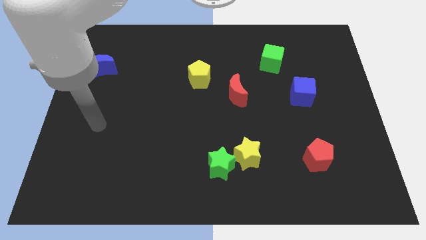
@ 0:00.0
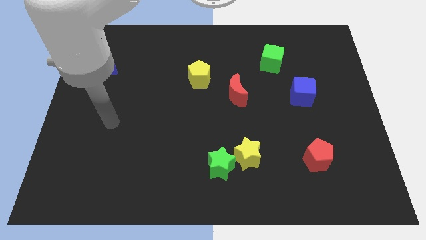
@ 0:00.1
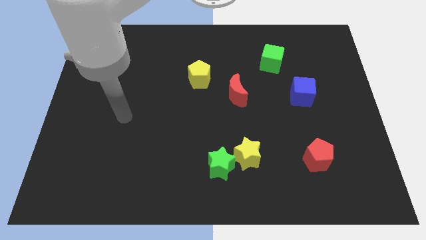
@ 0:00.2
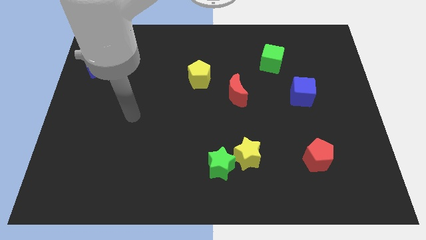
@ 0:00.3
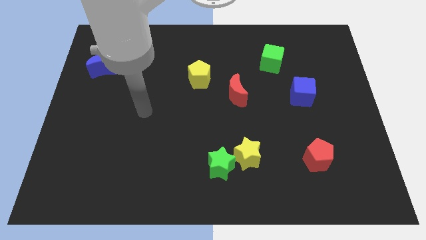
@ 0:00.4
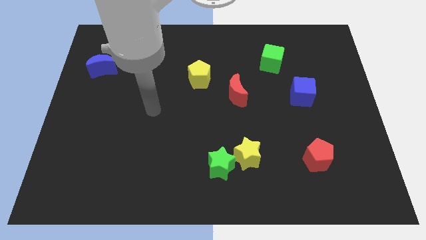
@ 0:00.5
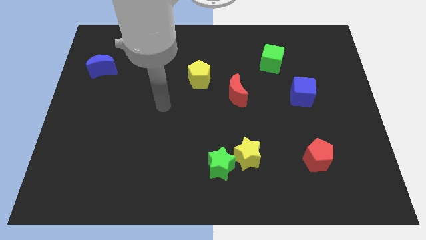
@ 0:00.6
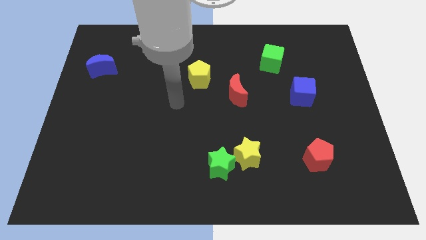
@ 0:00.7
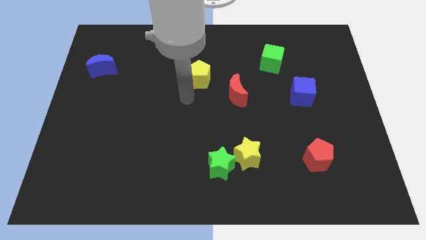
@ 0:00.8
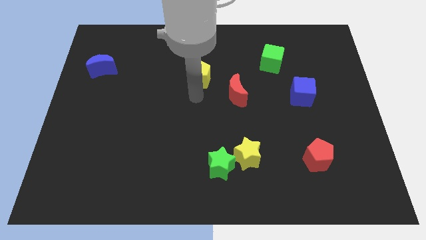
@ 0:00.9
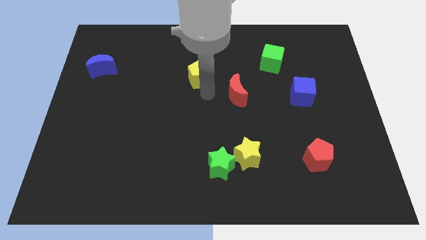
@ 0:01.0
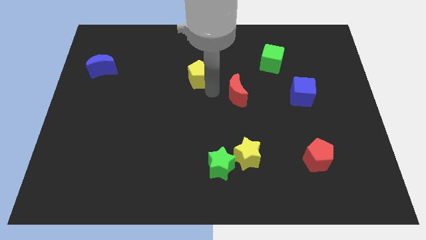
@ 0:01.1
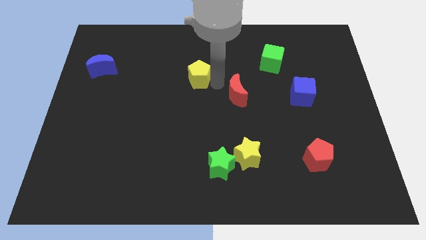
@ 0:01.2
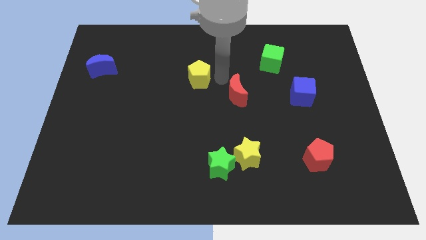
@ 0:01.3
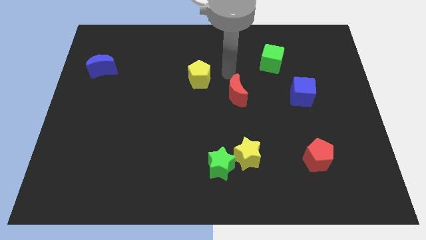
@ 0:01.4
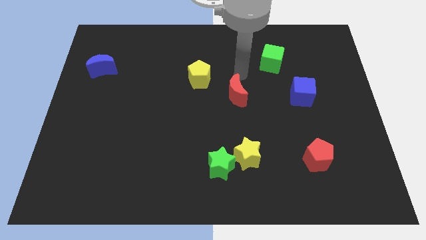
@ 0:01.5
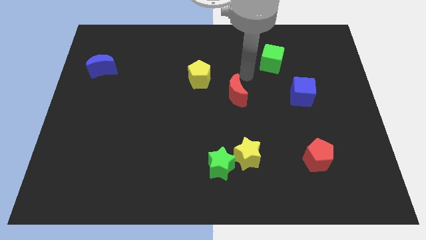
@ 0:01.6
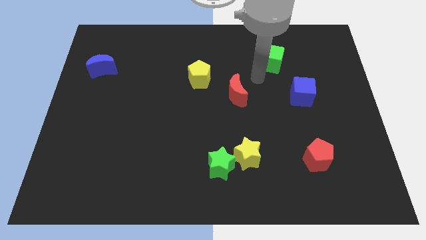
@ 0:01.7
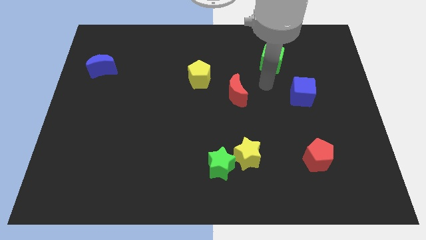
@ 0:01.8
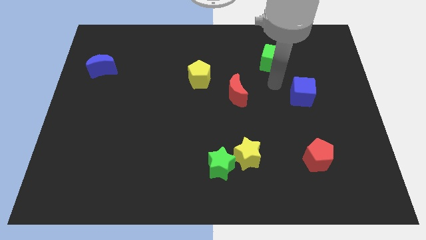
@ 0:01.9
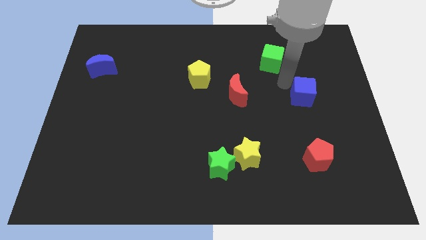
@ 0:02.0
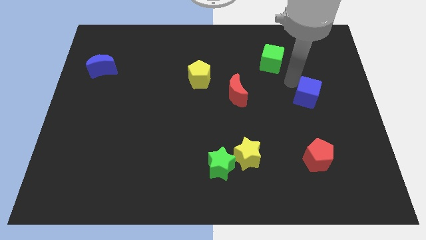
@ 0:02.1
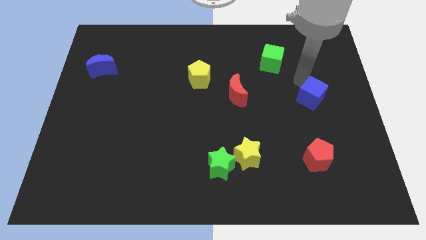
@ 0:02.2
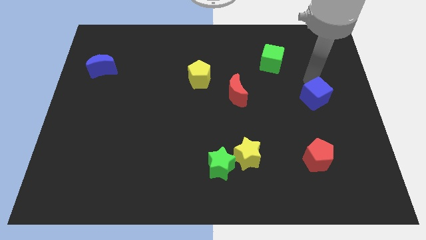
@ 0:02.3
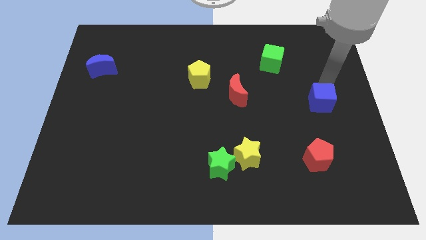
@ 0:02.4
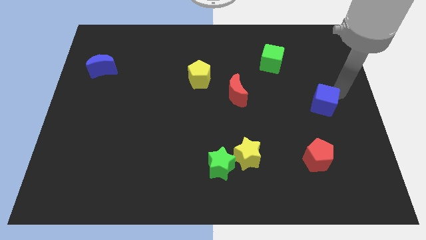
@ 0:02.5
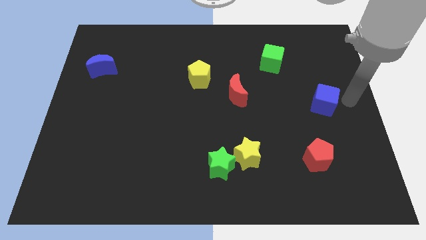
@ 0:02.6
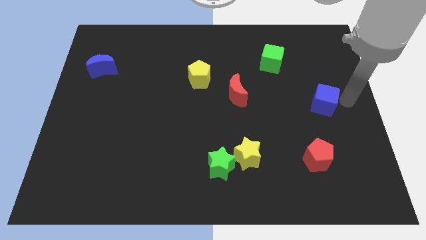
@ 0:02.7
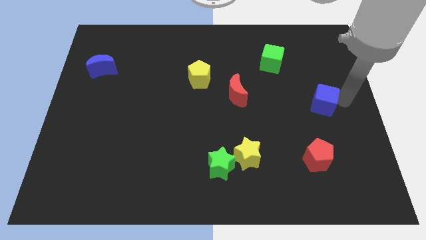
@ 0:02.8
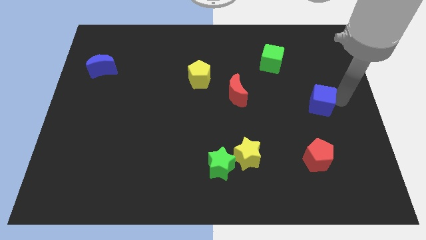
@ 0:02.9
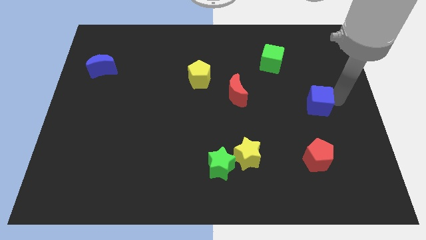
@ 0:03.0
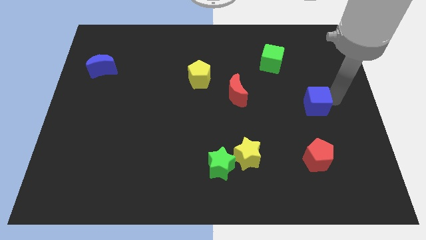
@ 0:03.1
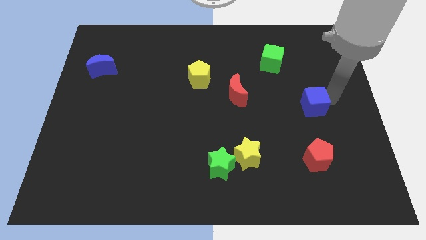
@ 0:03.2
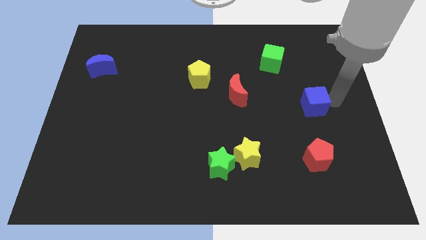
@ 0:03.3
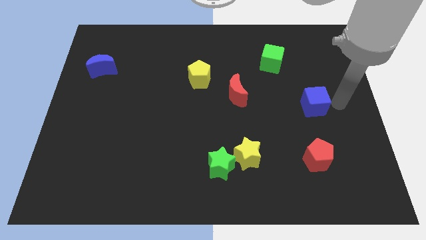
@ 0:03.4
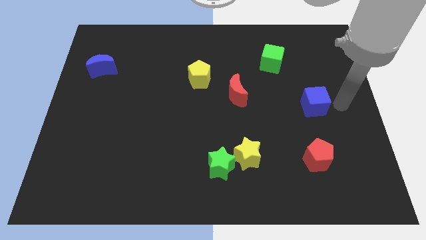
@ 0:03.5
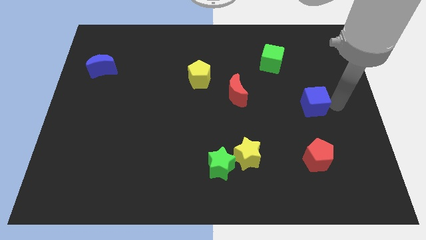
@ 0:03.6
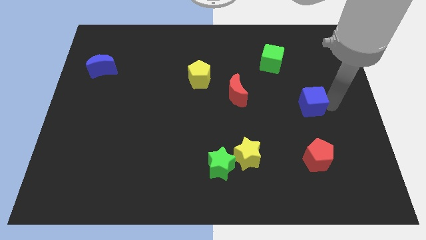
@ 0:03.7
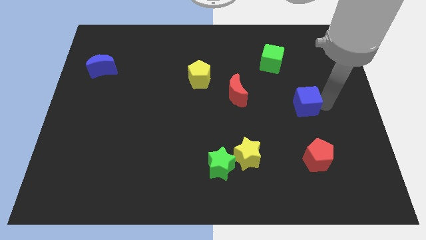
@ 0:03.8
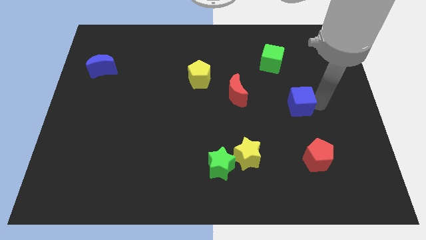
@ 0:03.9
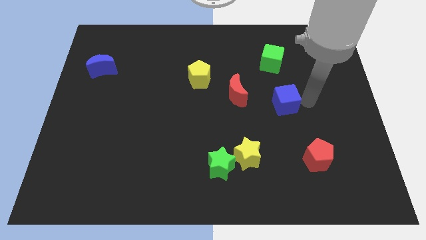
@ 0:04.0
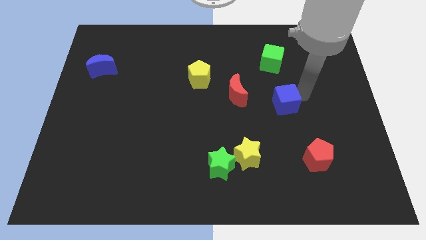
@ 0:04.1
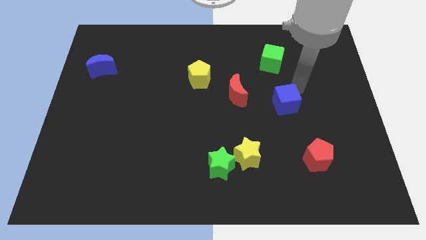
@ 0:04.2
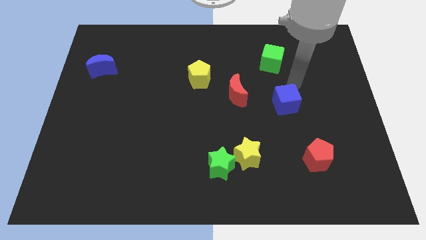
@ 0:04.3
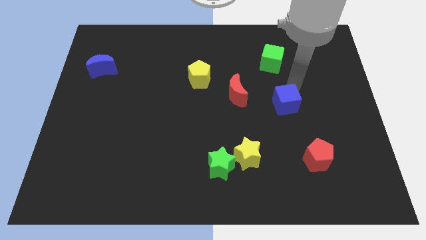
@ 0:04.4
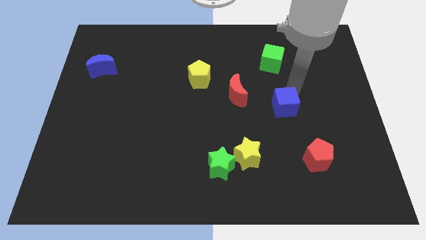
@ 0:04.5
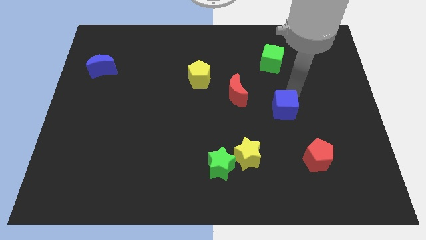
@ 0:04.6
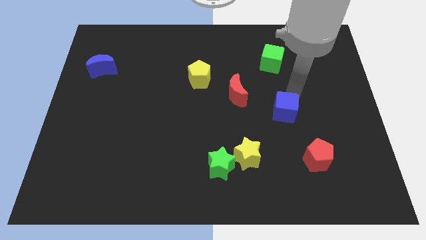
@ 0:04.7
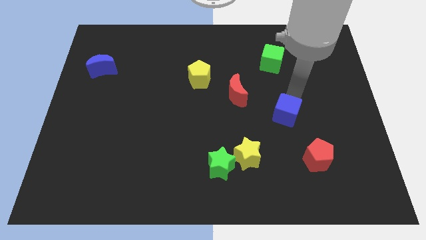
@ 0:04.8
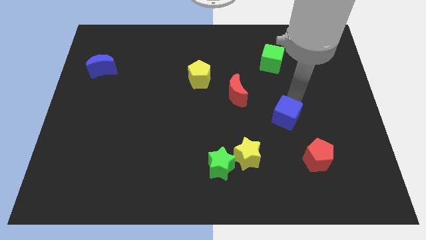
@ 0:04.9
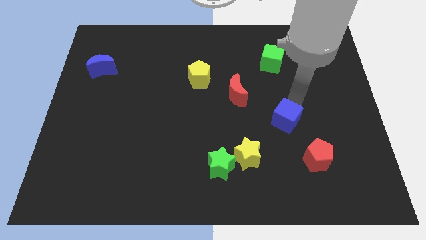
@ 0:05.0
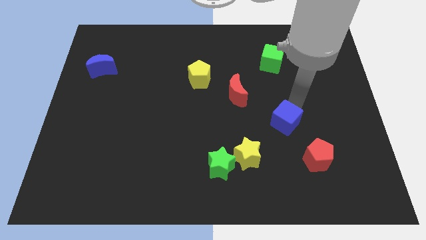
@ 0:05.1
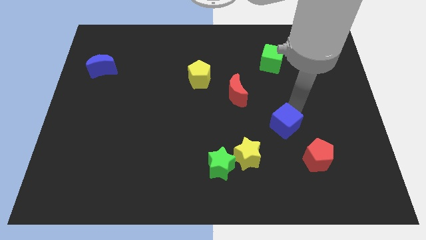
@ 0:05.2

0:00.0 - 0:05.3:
move the blue cube diagonally up and to the right of the yellow star

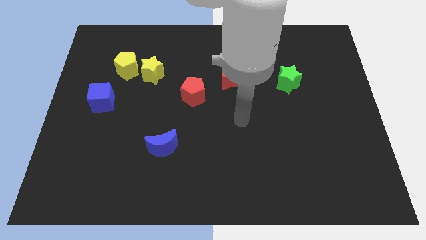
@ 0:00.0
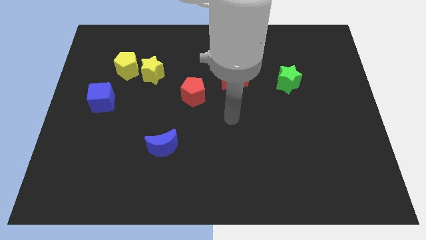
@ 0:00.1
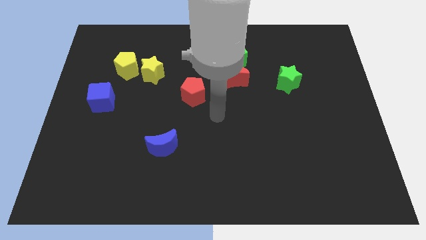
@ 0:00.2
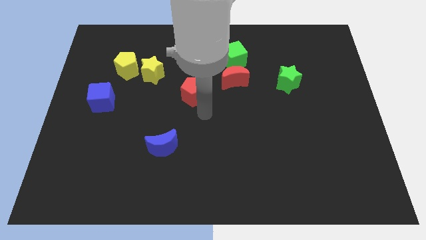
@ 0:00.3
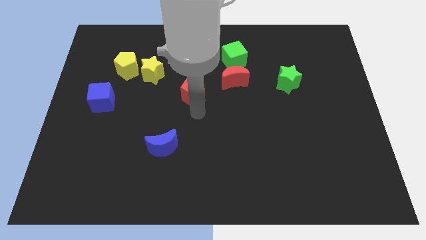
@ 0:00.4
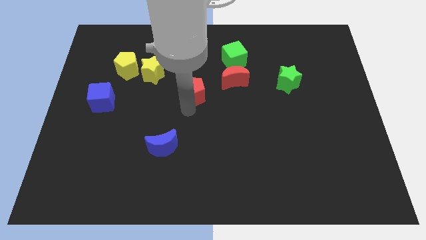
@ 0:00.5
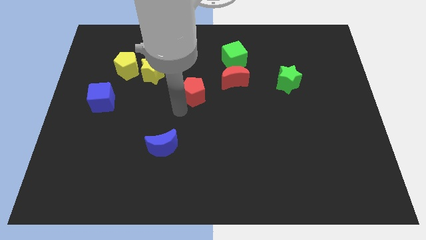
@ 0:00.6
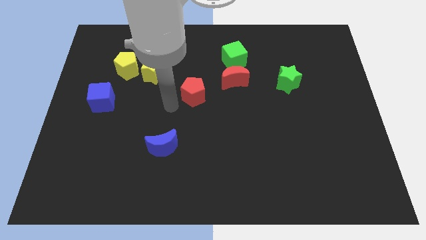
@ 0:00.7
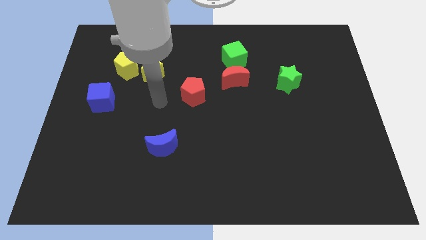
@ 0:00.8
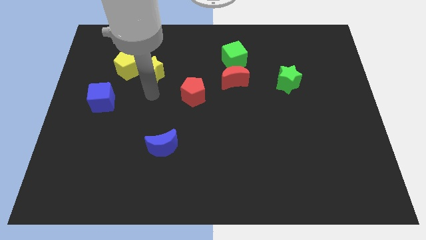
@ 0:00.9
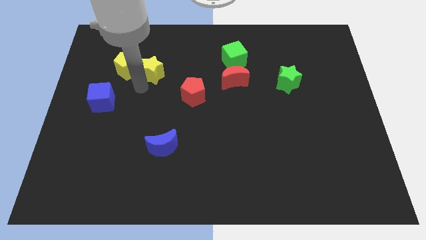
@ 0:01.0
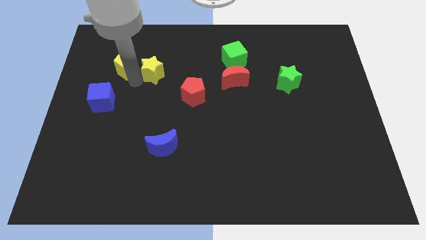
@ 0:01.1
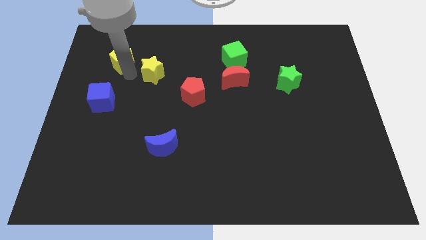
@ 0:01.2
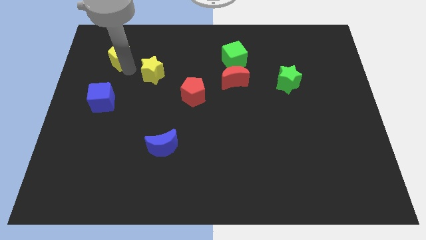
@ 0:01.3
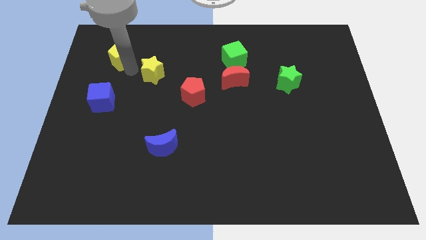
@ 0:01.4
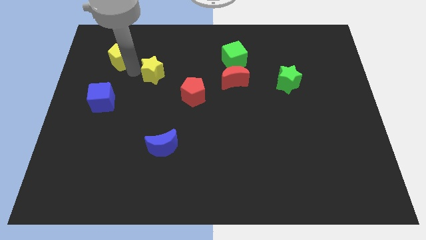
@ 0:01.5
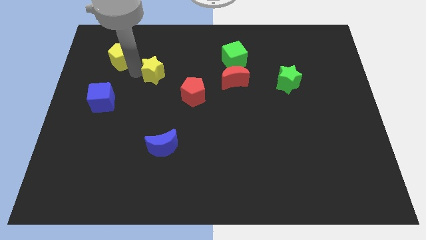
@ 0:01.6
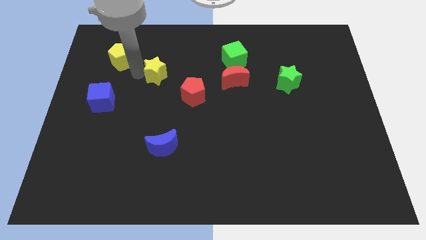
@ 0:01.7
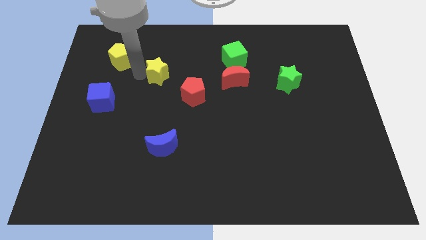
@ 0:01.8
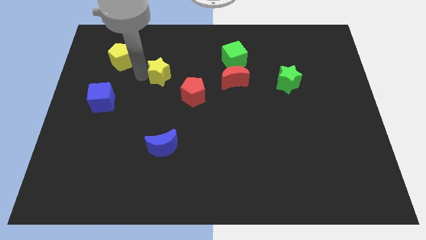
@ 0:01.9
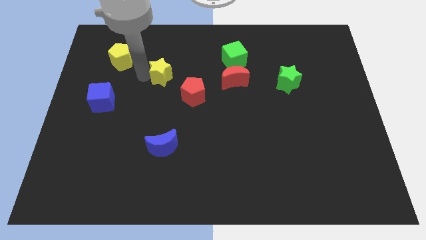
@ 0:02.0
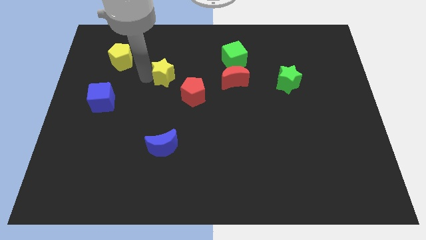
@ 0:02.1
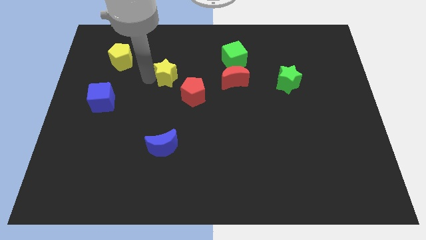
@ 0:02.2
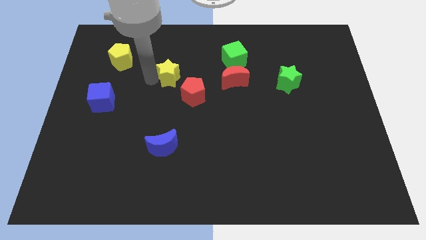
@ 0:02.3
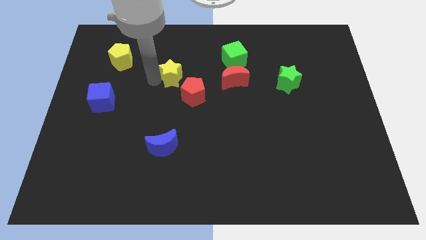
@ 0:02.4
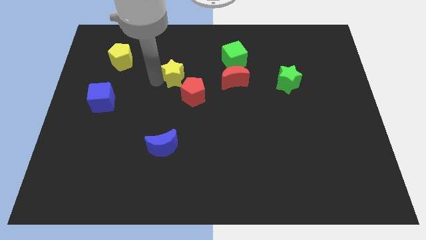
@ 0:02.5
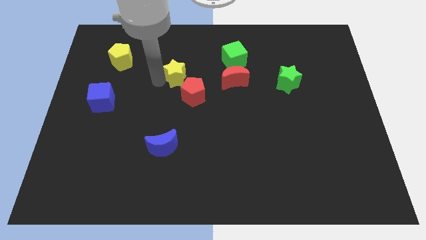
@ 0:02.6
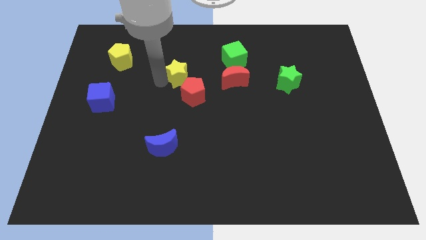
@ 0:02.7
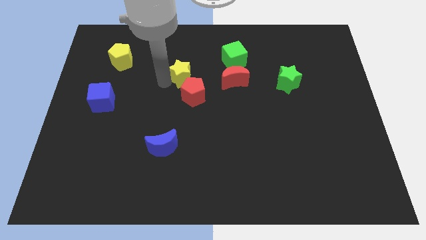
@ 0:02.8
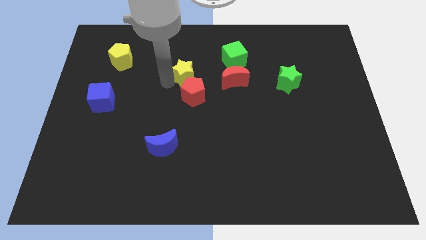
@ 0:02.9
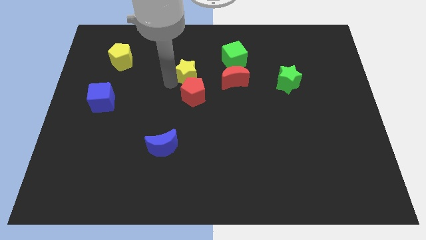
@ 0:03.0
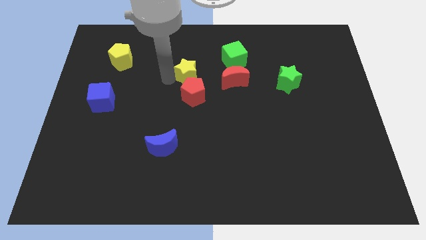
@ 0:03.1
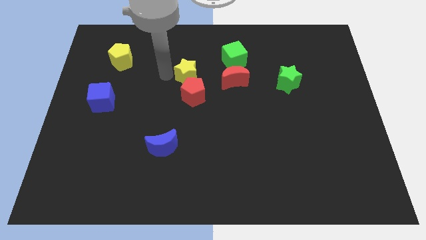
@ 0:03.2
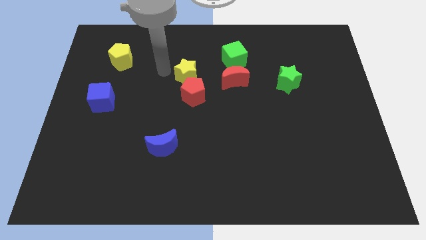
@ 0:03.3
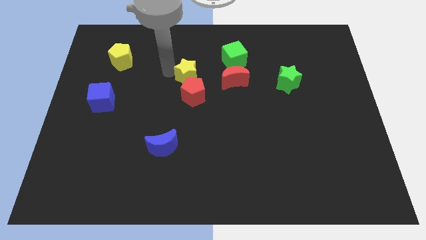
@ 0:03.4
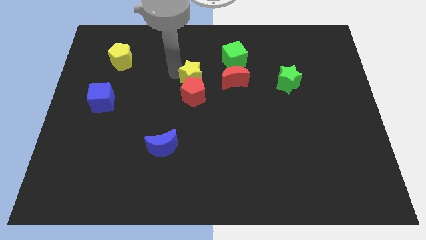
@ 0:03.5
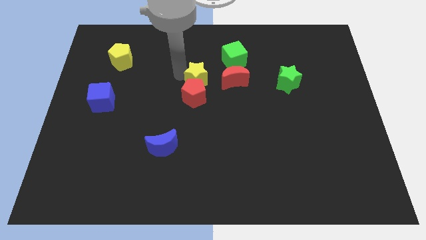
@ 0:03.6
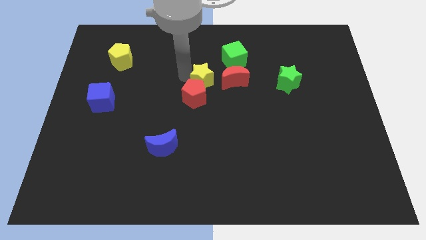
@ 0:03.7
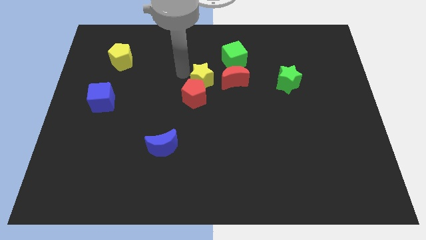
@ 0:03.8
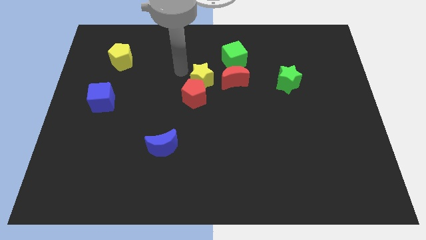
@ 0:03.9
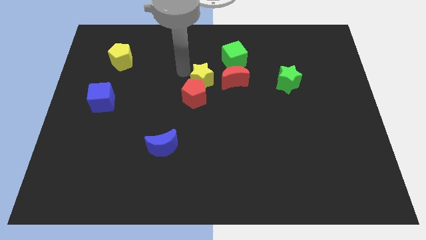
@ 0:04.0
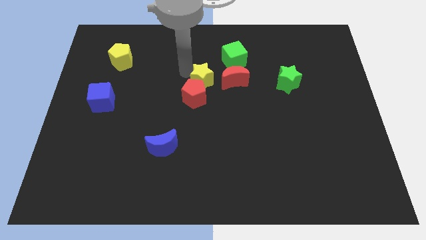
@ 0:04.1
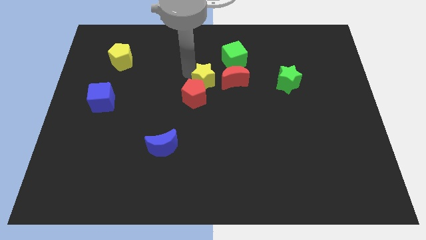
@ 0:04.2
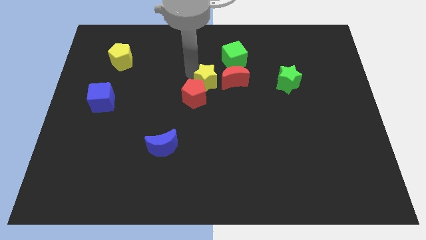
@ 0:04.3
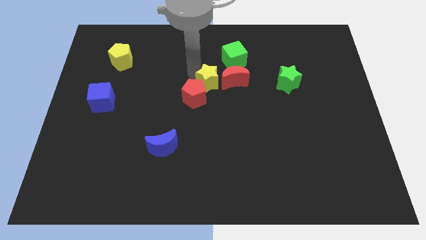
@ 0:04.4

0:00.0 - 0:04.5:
put the yellow star just right of the red pentagon
